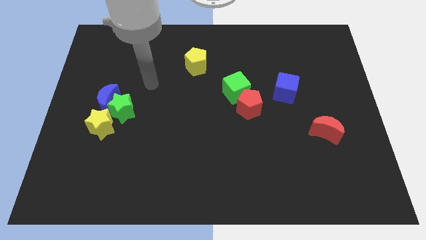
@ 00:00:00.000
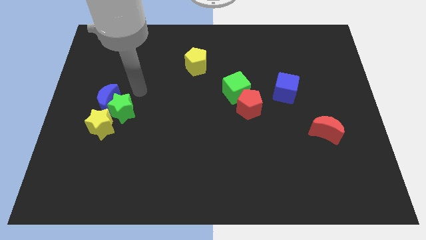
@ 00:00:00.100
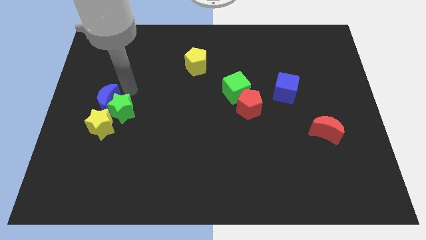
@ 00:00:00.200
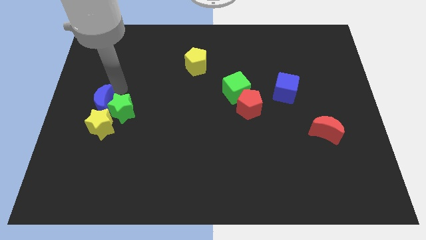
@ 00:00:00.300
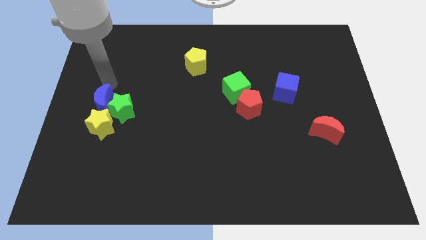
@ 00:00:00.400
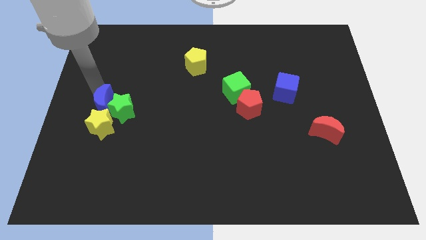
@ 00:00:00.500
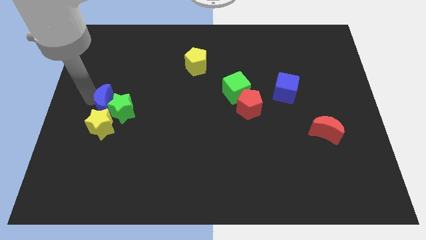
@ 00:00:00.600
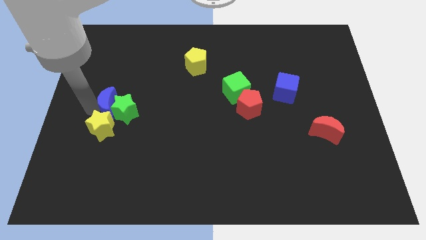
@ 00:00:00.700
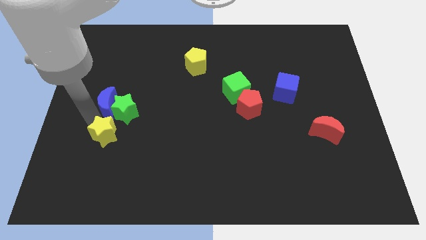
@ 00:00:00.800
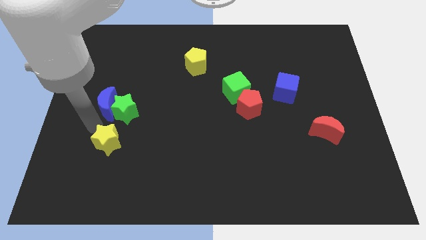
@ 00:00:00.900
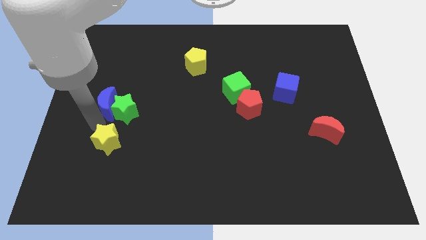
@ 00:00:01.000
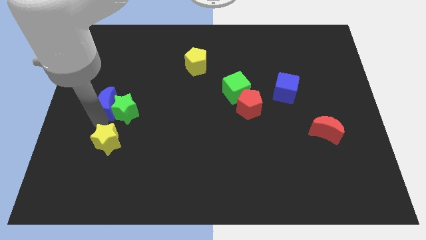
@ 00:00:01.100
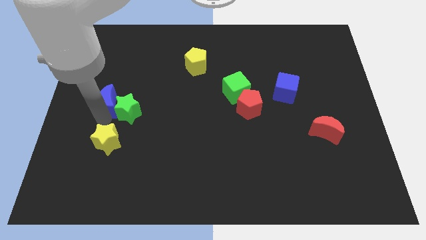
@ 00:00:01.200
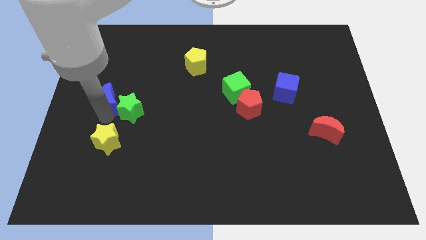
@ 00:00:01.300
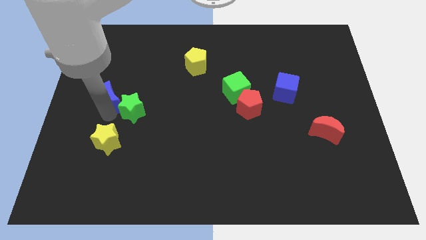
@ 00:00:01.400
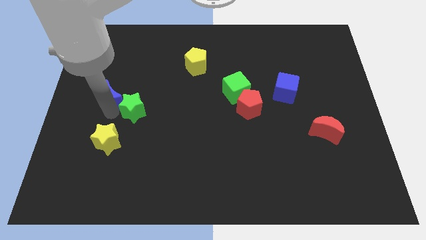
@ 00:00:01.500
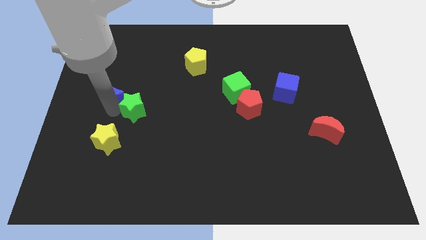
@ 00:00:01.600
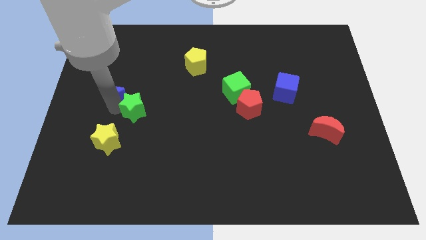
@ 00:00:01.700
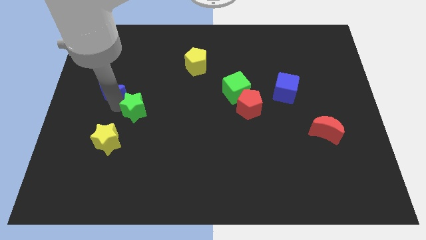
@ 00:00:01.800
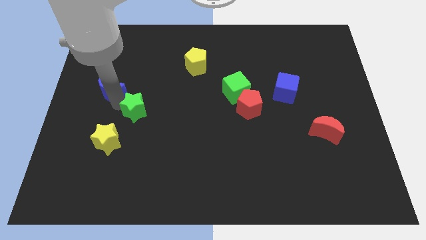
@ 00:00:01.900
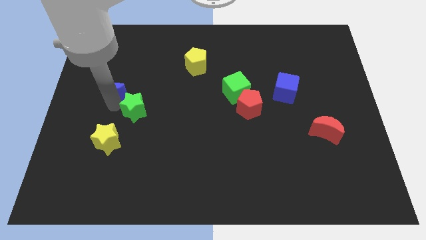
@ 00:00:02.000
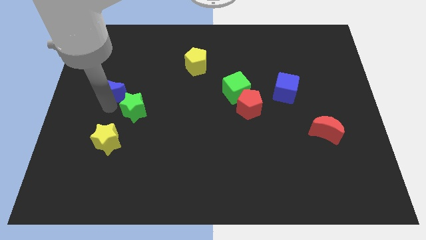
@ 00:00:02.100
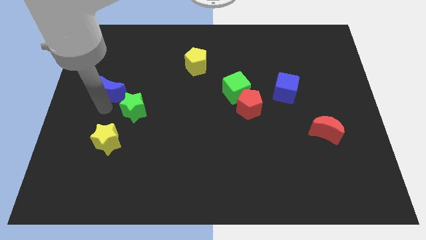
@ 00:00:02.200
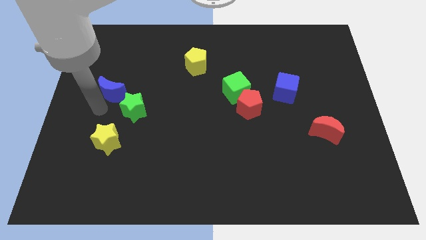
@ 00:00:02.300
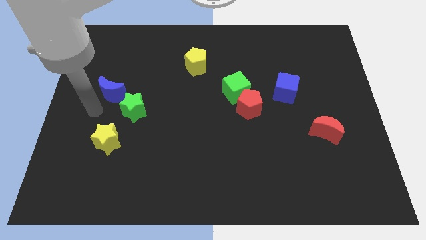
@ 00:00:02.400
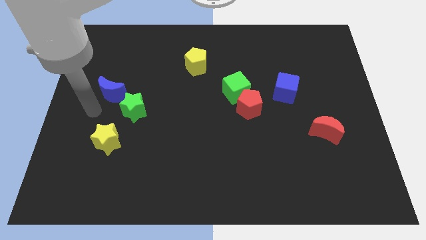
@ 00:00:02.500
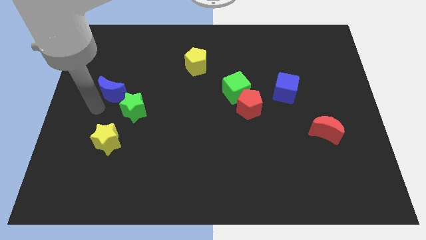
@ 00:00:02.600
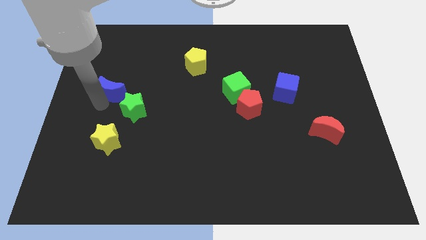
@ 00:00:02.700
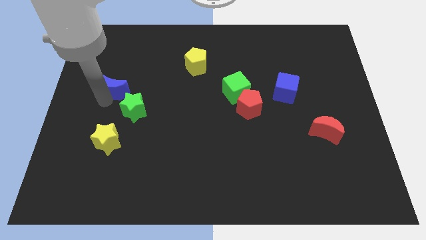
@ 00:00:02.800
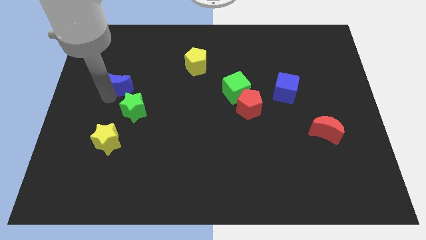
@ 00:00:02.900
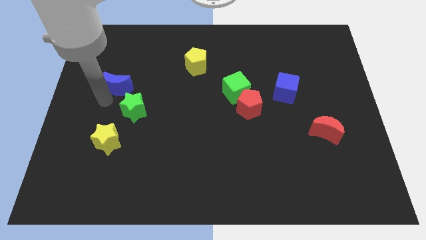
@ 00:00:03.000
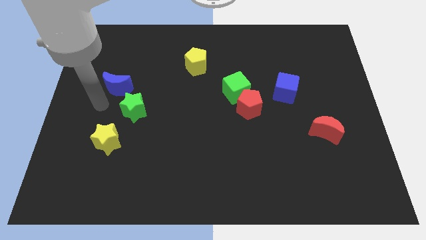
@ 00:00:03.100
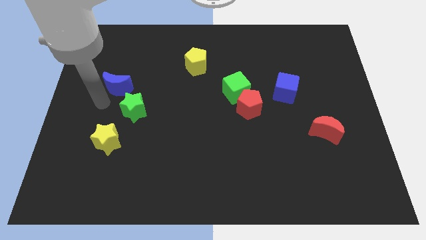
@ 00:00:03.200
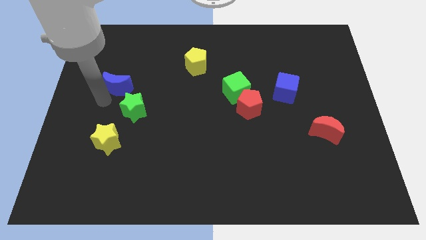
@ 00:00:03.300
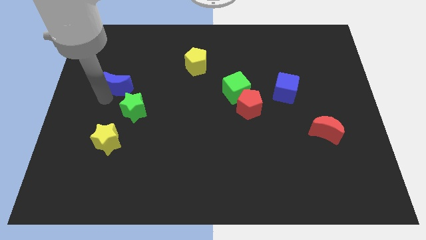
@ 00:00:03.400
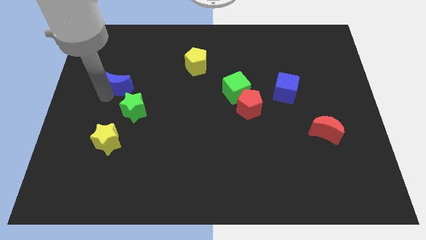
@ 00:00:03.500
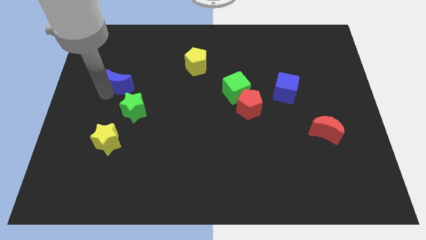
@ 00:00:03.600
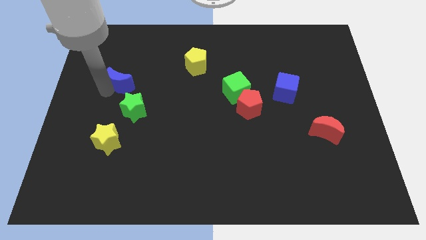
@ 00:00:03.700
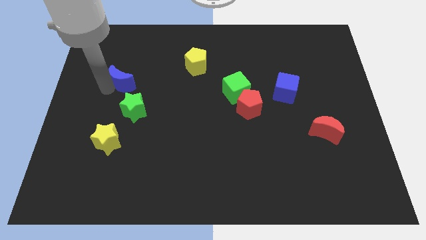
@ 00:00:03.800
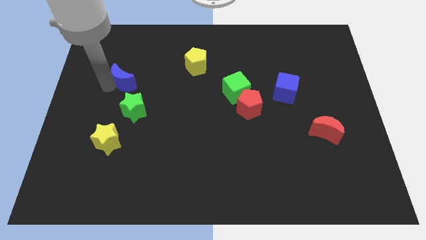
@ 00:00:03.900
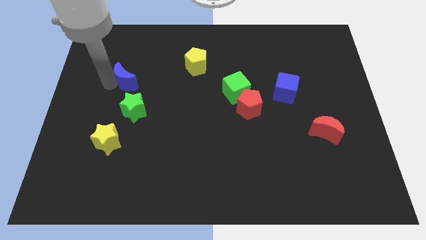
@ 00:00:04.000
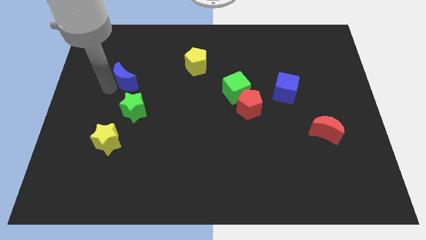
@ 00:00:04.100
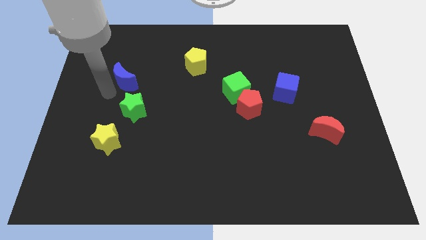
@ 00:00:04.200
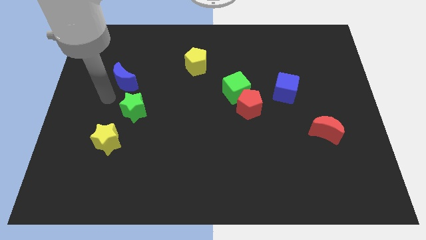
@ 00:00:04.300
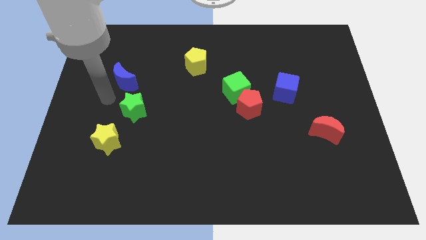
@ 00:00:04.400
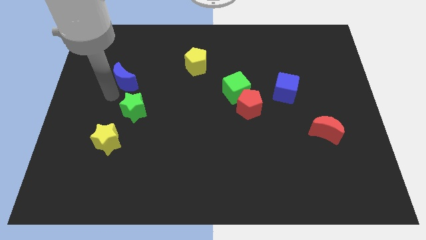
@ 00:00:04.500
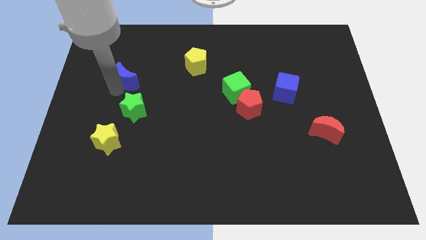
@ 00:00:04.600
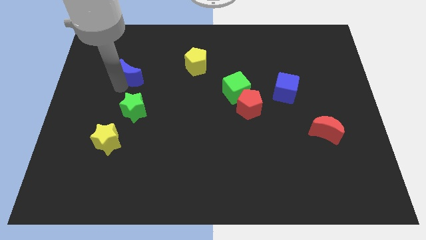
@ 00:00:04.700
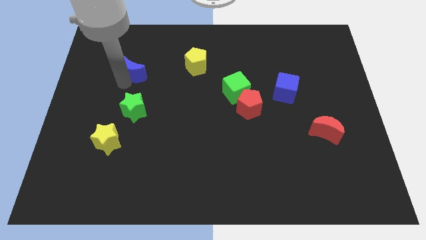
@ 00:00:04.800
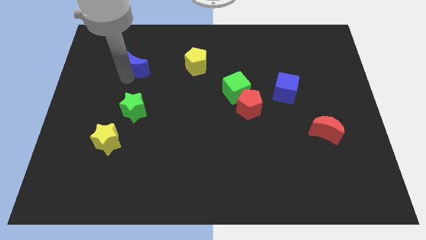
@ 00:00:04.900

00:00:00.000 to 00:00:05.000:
move the blue moon left of the yellow pentagon

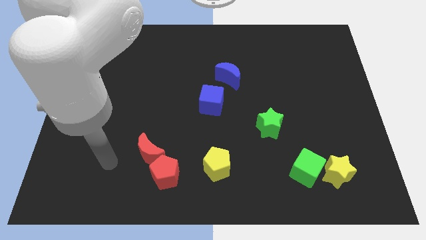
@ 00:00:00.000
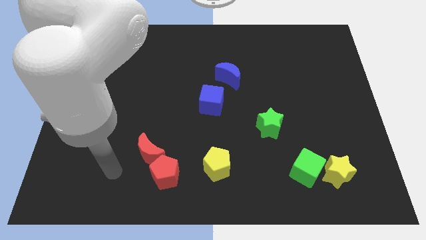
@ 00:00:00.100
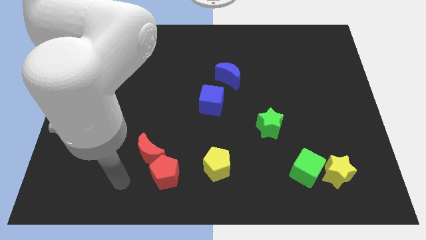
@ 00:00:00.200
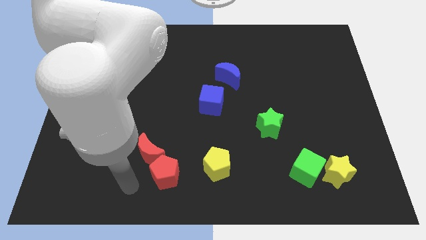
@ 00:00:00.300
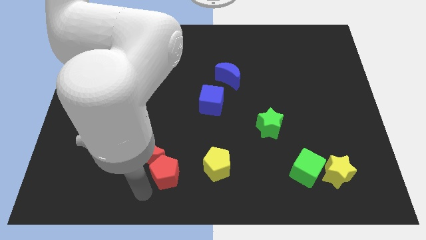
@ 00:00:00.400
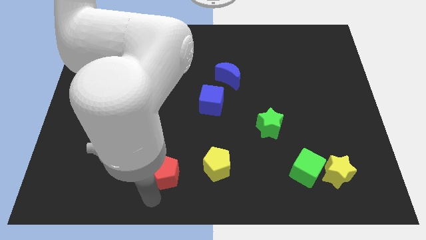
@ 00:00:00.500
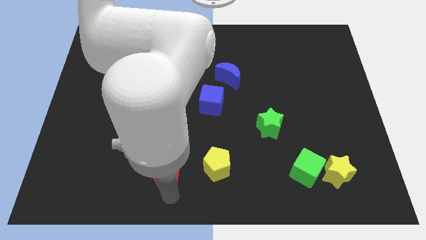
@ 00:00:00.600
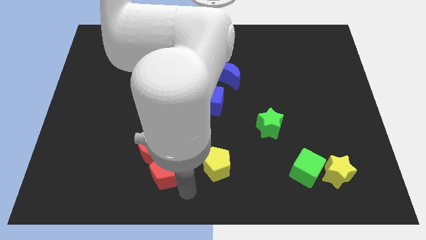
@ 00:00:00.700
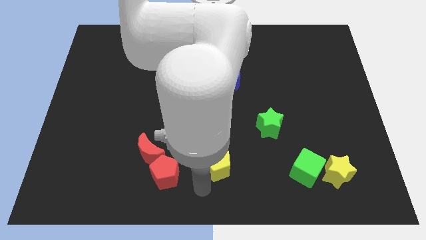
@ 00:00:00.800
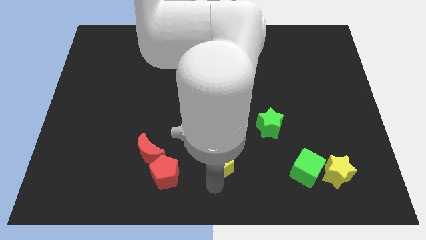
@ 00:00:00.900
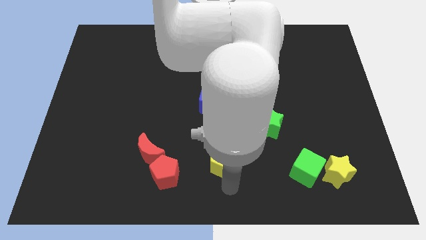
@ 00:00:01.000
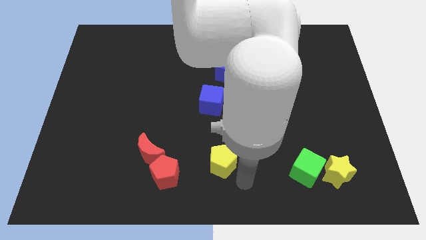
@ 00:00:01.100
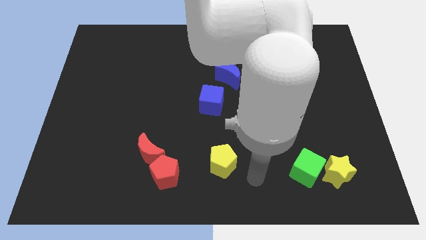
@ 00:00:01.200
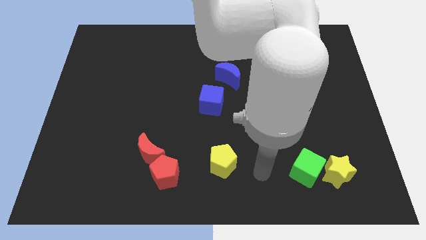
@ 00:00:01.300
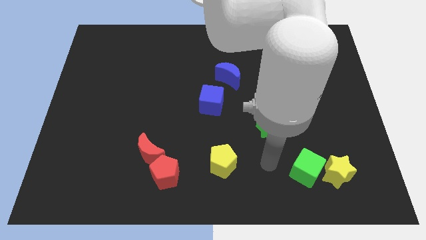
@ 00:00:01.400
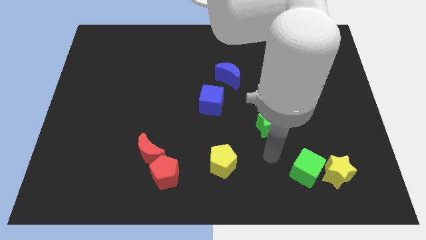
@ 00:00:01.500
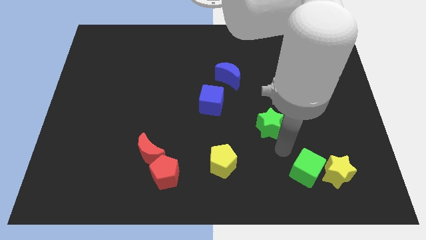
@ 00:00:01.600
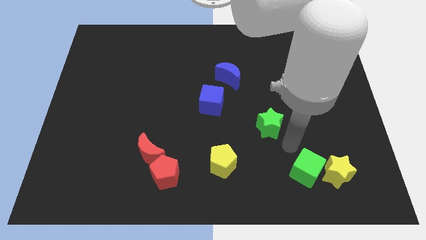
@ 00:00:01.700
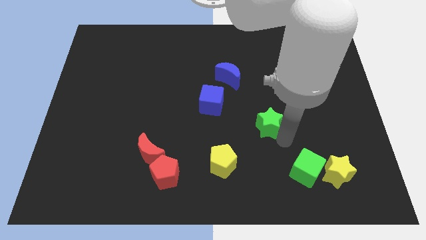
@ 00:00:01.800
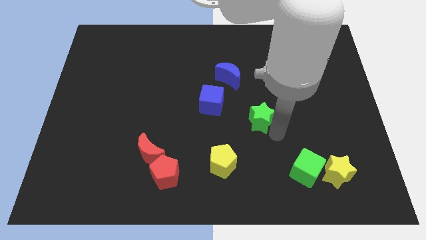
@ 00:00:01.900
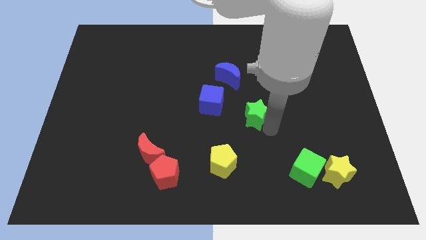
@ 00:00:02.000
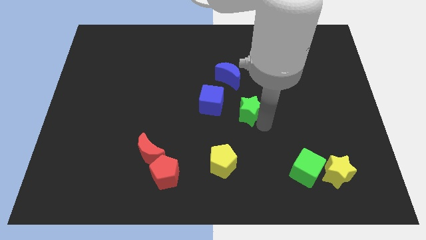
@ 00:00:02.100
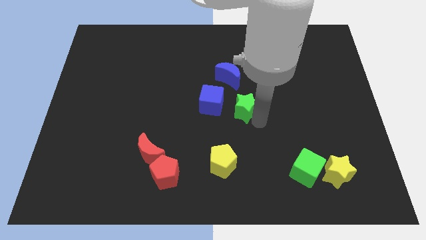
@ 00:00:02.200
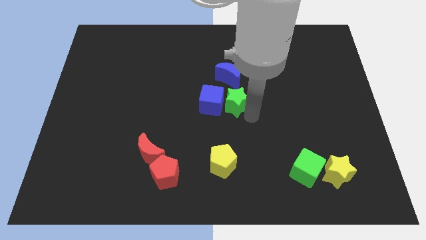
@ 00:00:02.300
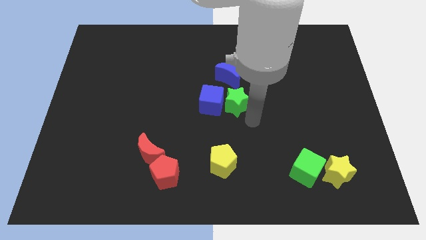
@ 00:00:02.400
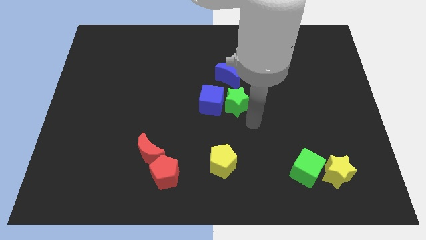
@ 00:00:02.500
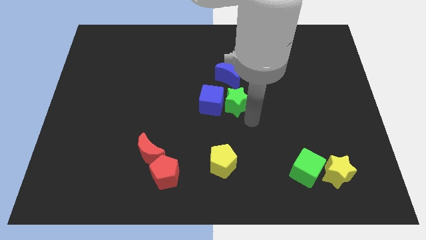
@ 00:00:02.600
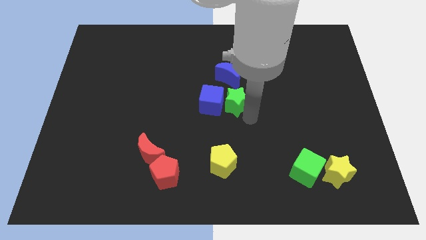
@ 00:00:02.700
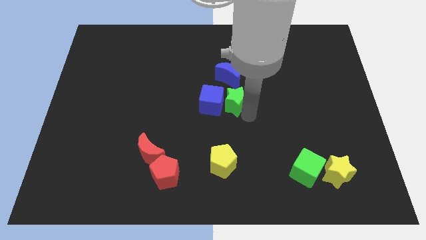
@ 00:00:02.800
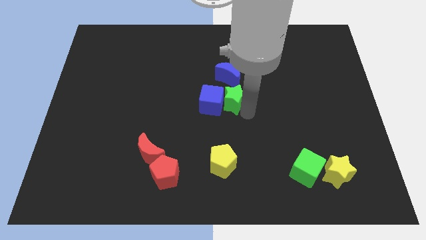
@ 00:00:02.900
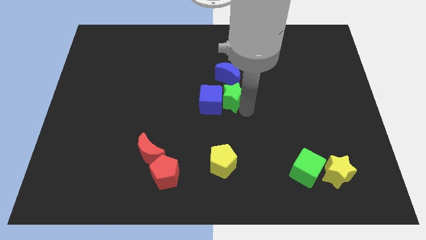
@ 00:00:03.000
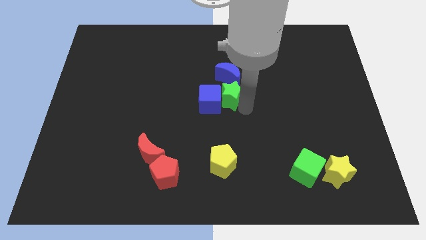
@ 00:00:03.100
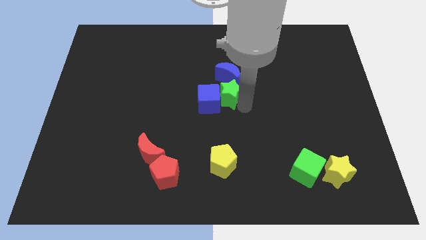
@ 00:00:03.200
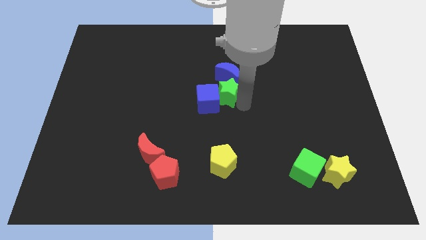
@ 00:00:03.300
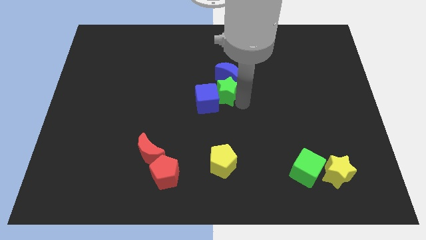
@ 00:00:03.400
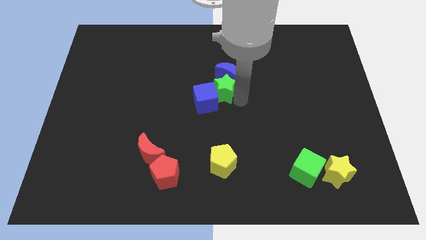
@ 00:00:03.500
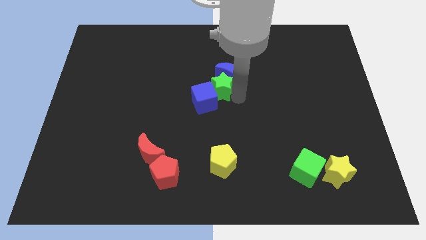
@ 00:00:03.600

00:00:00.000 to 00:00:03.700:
put the green star above the blue cube
